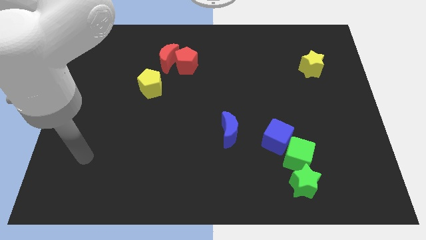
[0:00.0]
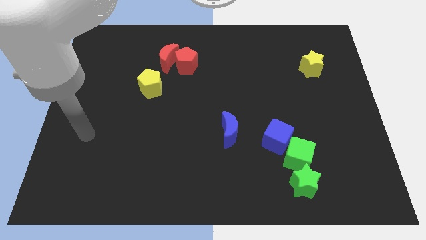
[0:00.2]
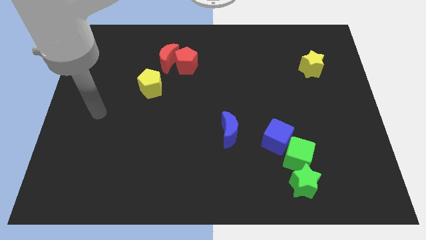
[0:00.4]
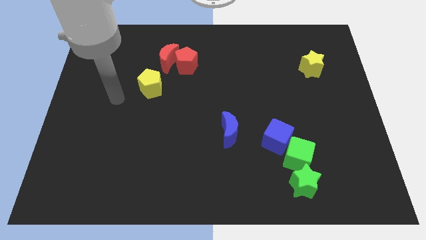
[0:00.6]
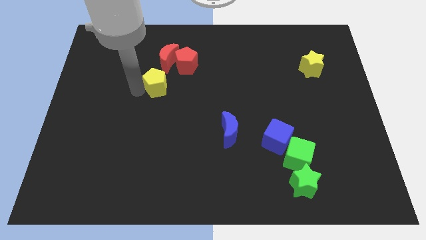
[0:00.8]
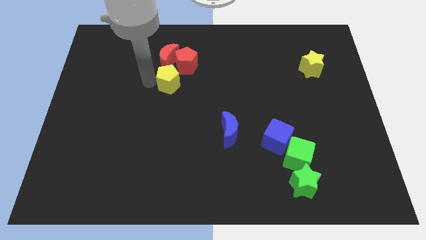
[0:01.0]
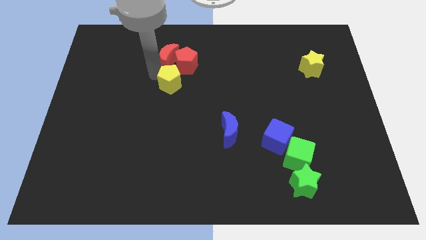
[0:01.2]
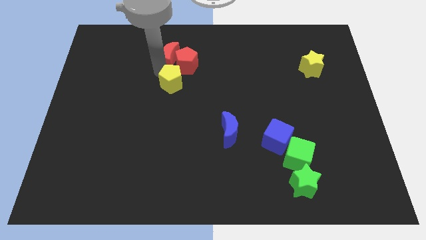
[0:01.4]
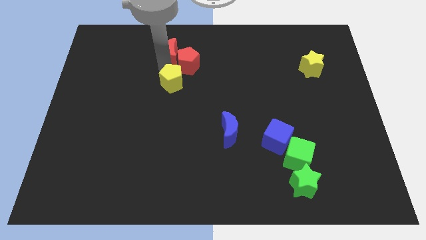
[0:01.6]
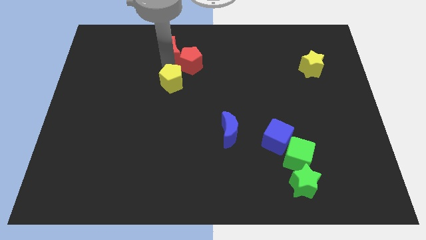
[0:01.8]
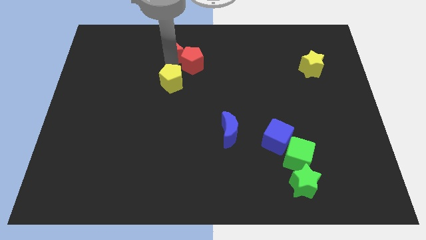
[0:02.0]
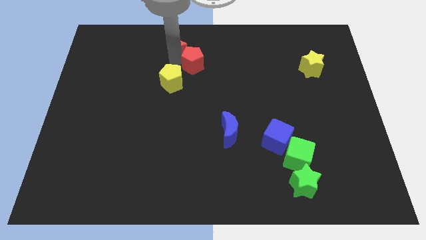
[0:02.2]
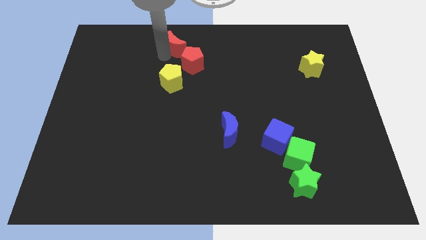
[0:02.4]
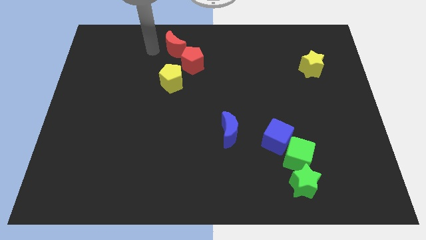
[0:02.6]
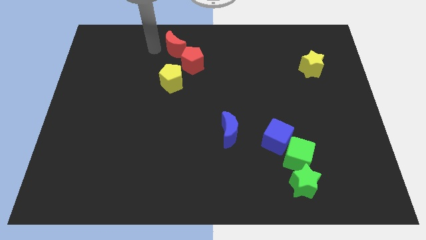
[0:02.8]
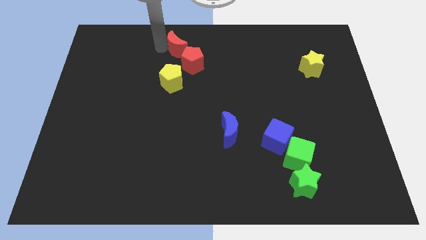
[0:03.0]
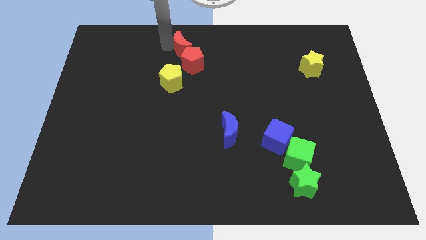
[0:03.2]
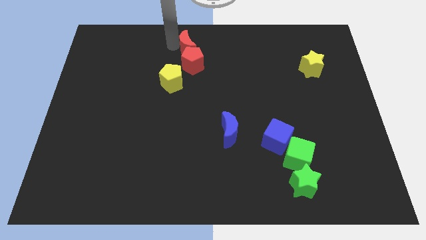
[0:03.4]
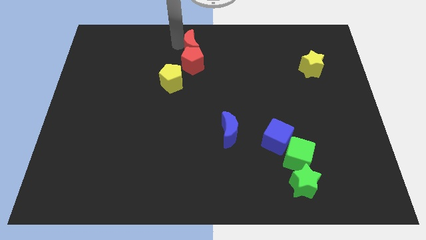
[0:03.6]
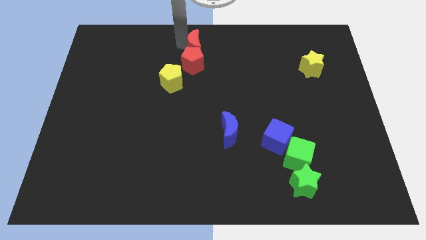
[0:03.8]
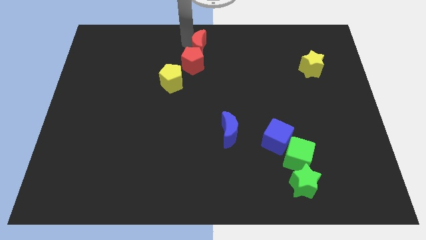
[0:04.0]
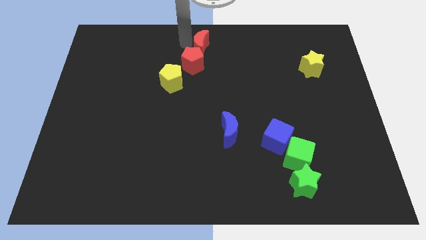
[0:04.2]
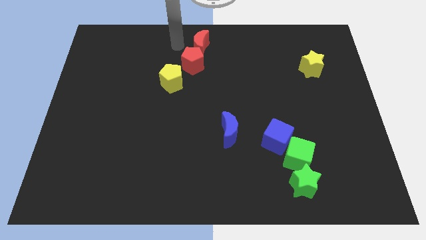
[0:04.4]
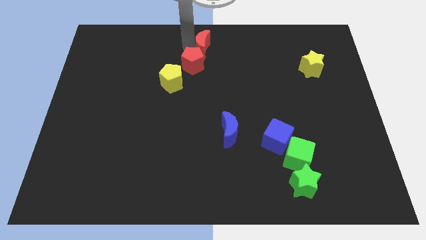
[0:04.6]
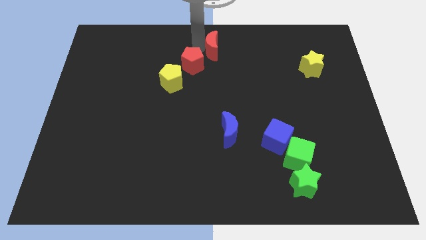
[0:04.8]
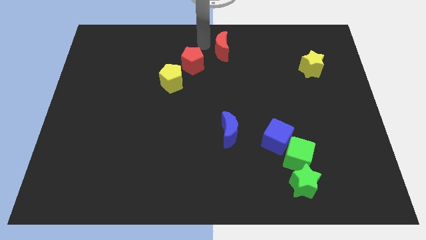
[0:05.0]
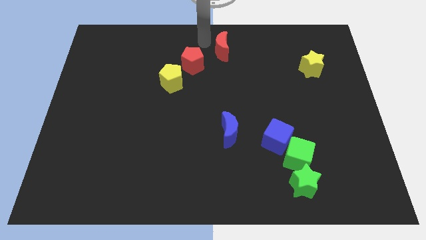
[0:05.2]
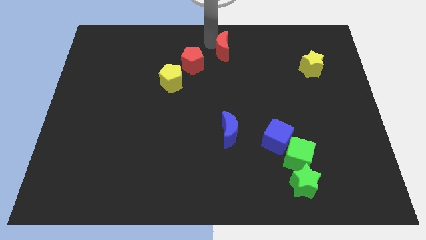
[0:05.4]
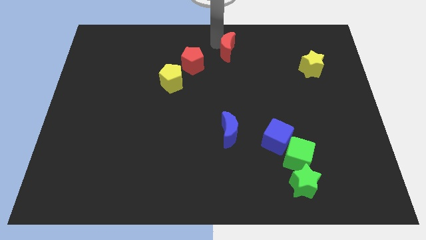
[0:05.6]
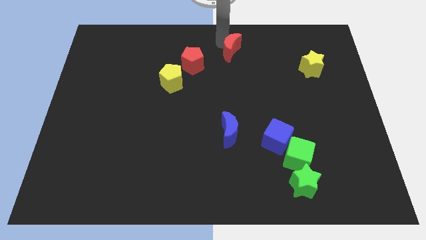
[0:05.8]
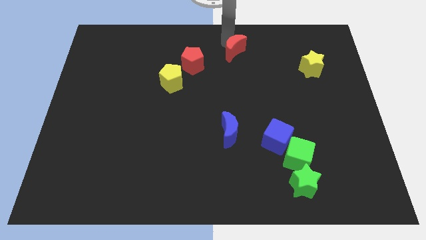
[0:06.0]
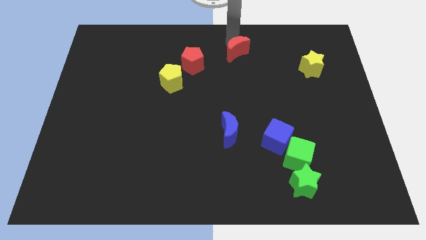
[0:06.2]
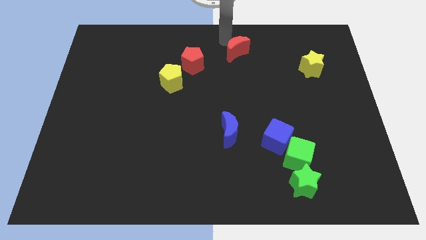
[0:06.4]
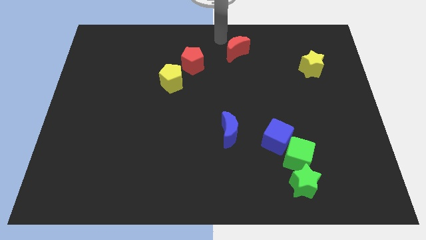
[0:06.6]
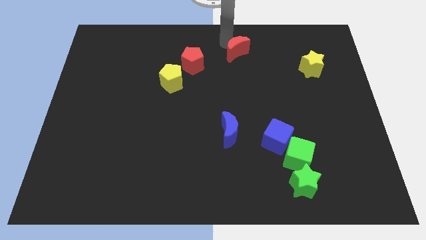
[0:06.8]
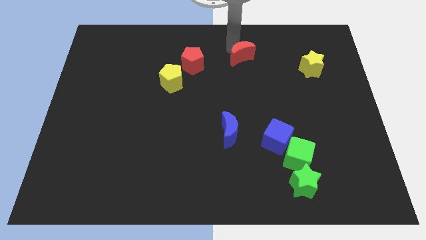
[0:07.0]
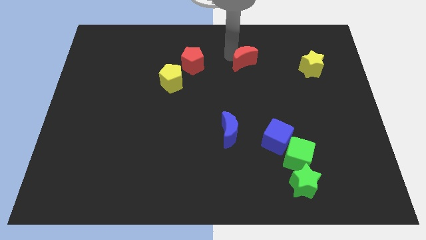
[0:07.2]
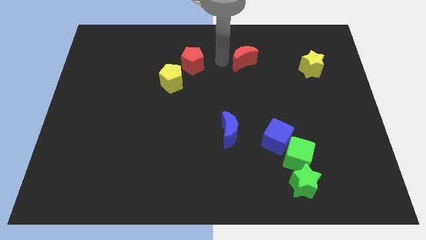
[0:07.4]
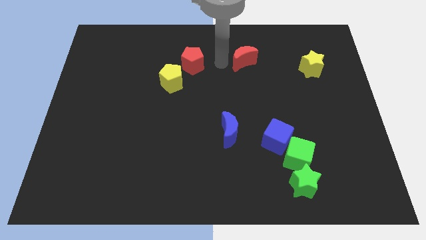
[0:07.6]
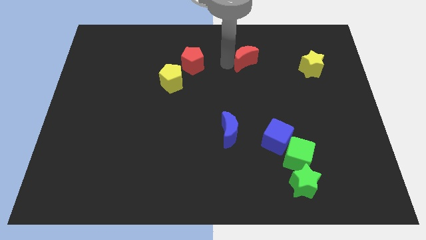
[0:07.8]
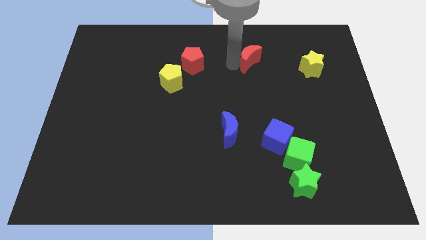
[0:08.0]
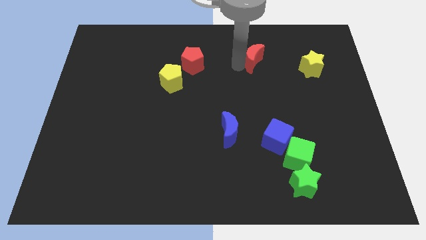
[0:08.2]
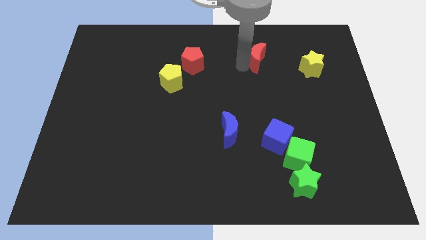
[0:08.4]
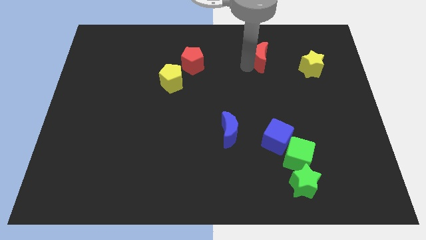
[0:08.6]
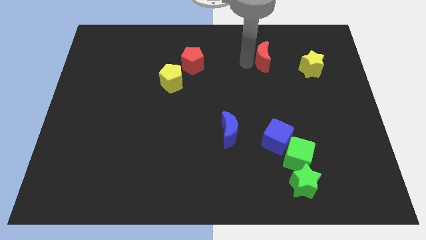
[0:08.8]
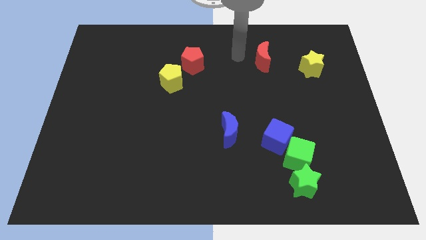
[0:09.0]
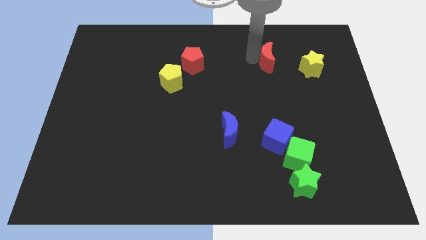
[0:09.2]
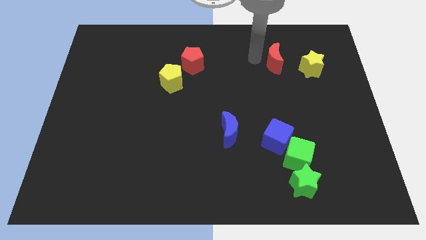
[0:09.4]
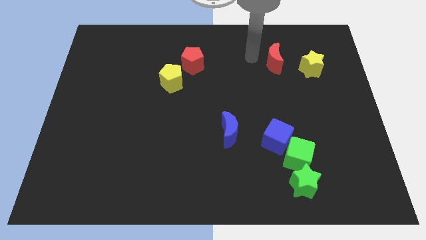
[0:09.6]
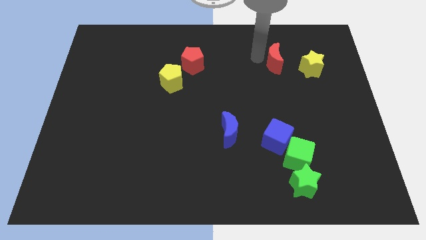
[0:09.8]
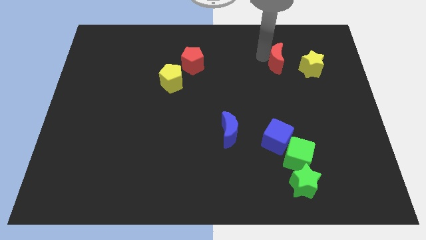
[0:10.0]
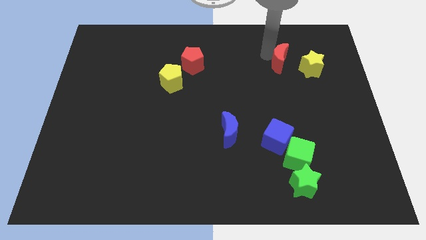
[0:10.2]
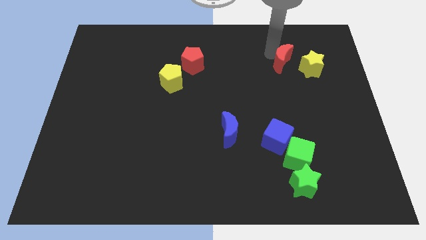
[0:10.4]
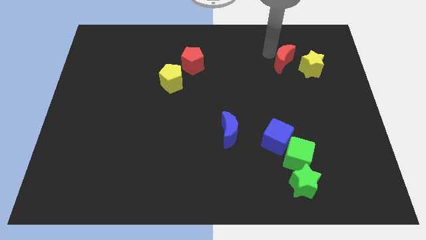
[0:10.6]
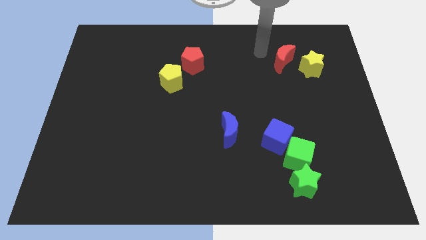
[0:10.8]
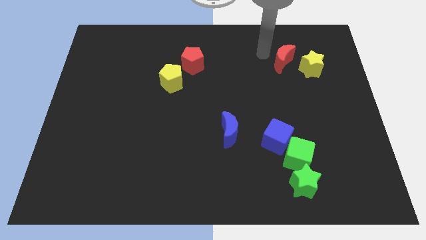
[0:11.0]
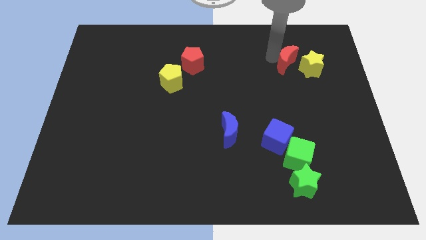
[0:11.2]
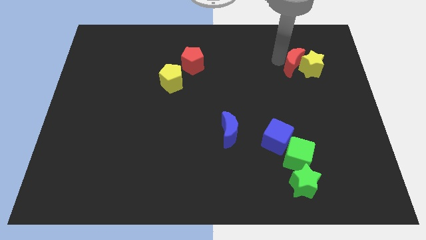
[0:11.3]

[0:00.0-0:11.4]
push the red moon next to the yellow star

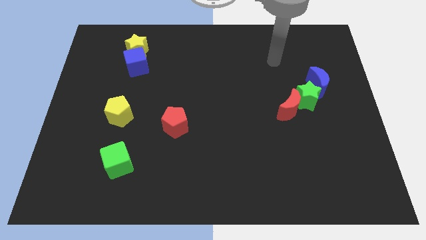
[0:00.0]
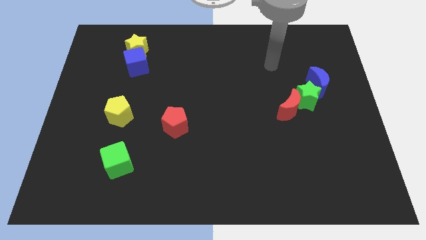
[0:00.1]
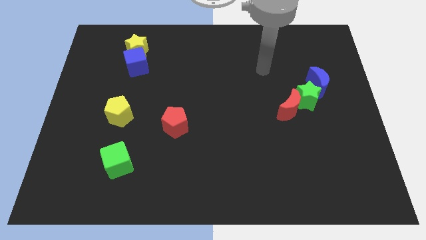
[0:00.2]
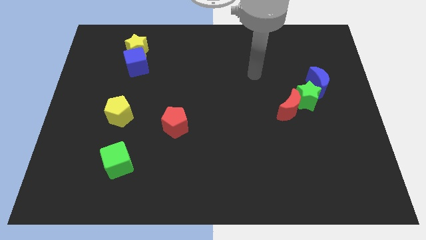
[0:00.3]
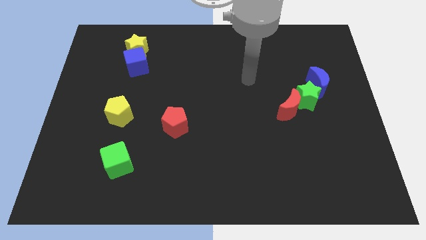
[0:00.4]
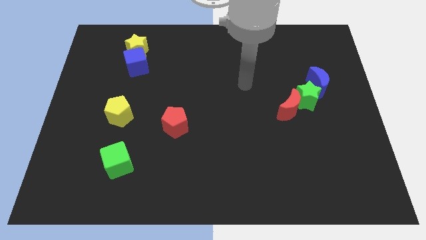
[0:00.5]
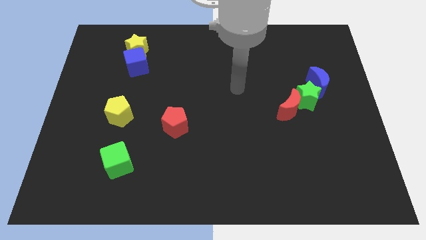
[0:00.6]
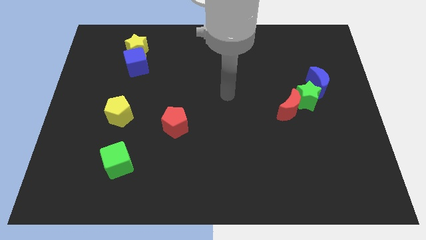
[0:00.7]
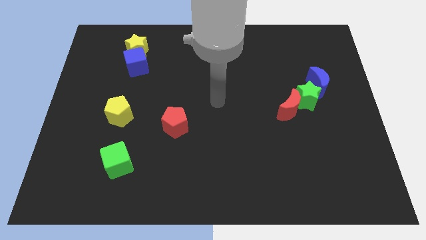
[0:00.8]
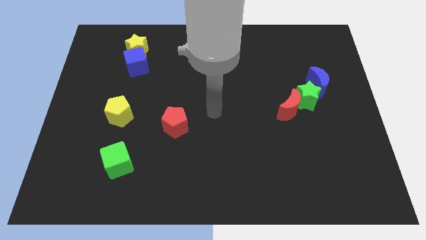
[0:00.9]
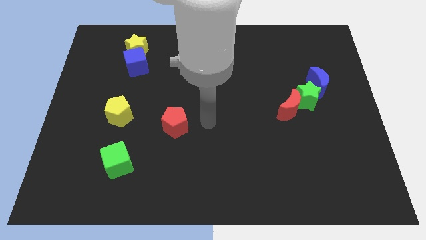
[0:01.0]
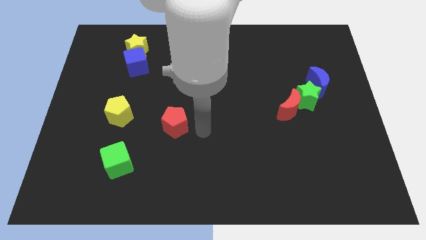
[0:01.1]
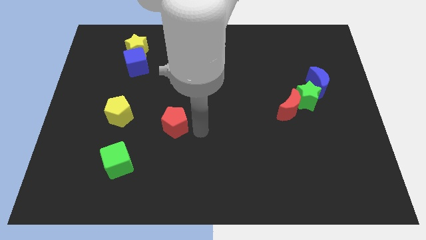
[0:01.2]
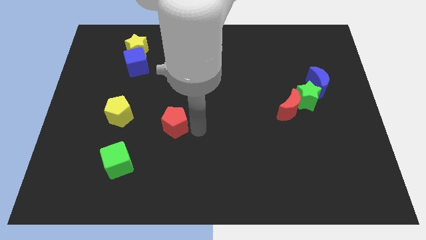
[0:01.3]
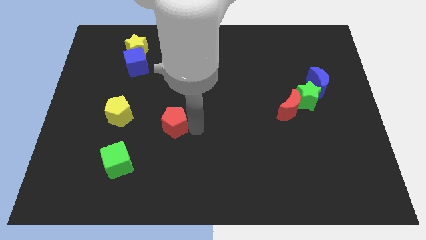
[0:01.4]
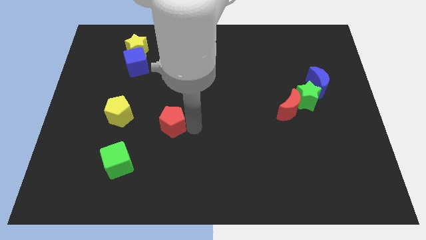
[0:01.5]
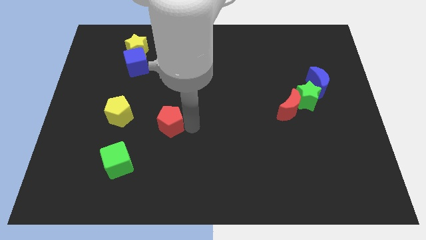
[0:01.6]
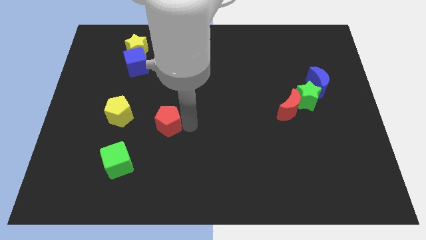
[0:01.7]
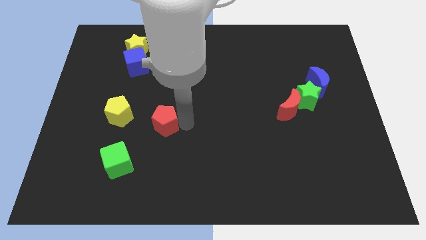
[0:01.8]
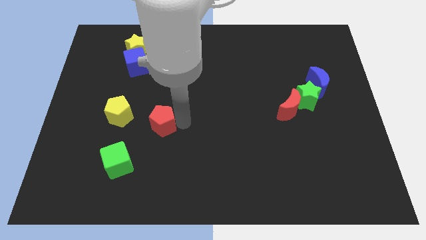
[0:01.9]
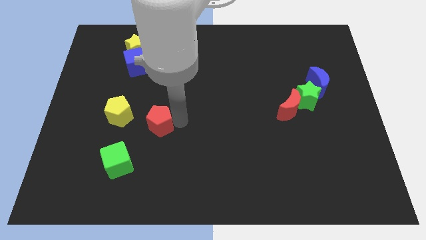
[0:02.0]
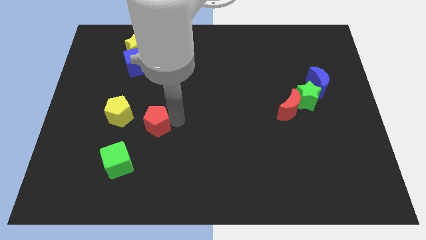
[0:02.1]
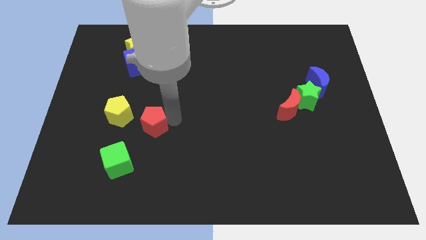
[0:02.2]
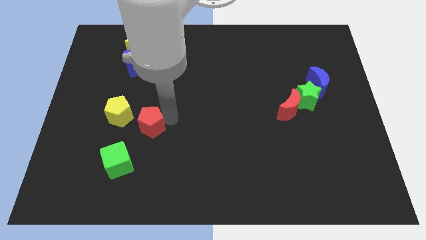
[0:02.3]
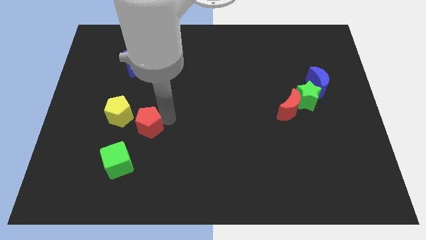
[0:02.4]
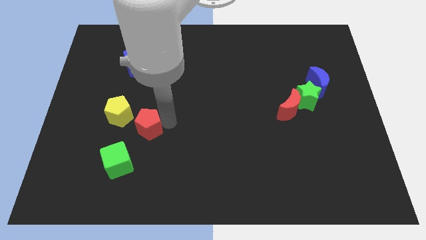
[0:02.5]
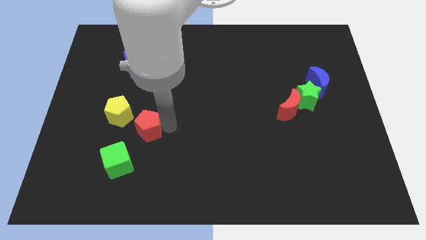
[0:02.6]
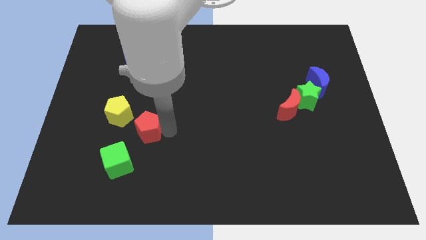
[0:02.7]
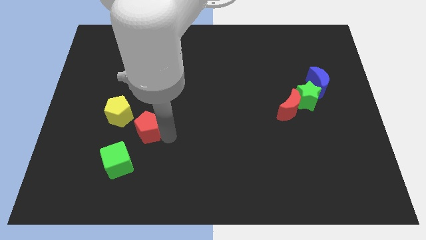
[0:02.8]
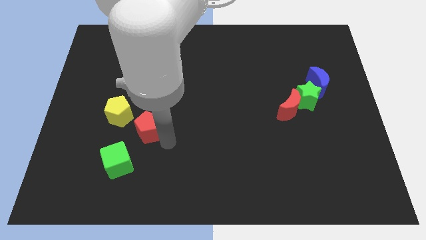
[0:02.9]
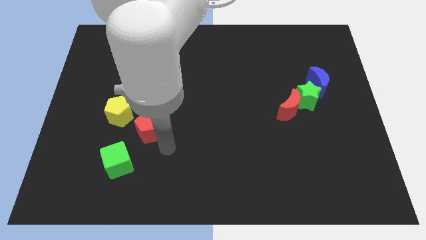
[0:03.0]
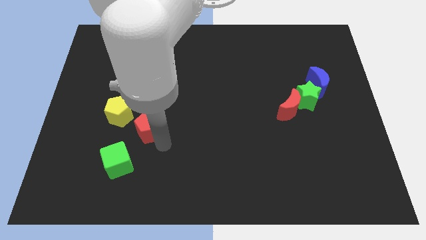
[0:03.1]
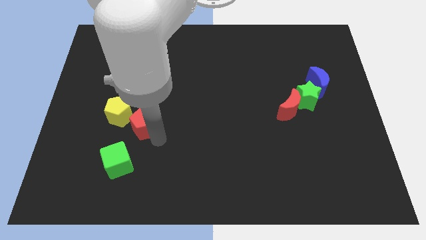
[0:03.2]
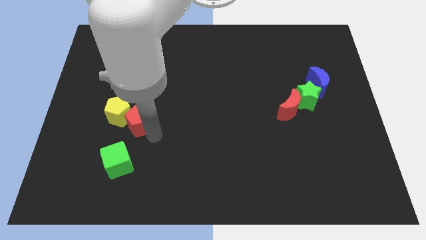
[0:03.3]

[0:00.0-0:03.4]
move the red pentagon close to the yellow pentagon
